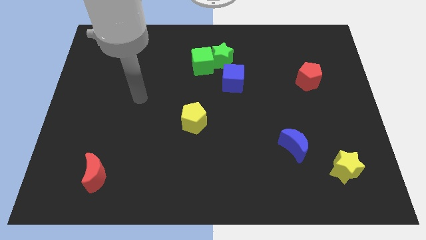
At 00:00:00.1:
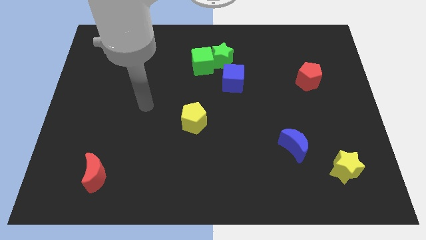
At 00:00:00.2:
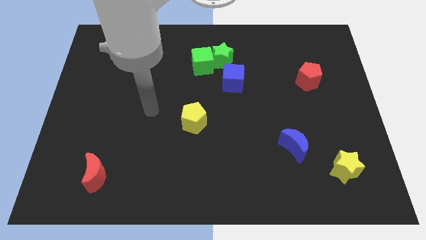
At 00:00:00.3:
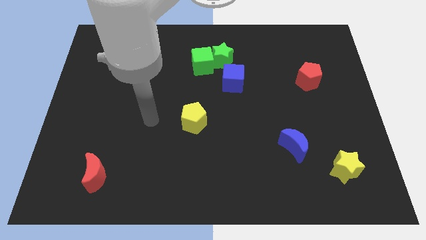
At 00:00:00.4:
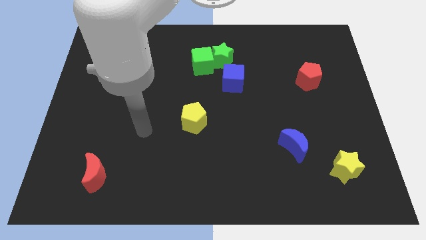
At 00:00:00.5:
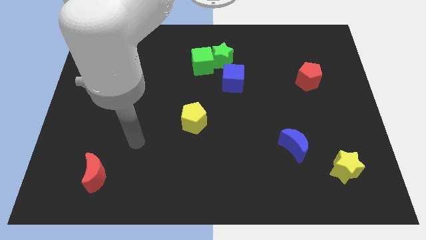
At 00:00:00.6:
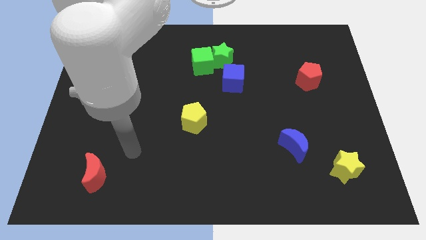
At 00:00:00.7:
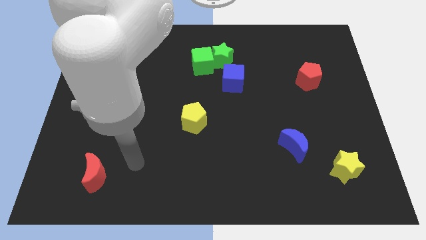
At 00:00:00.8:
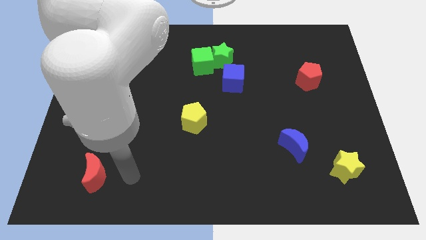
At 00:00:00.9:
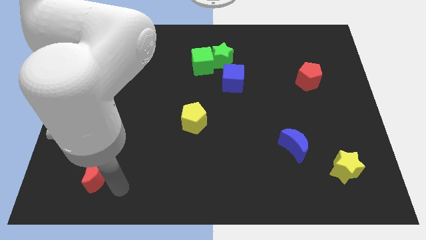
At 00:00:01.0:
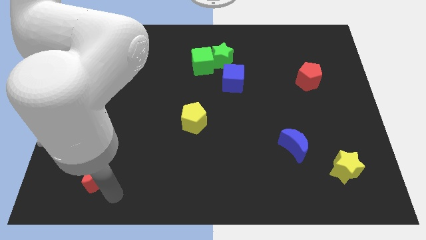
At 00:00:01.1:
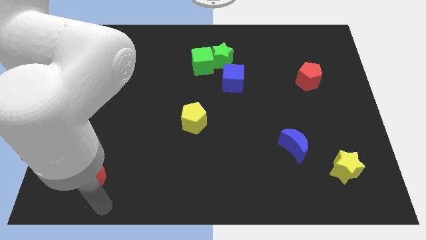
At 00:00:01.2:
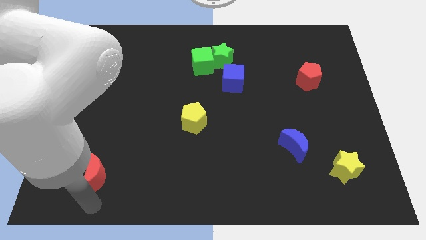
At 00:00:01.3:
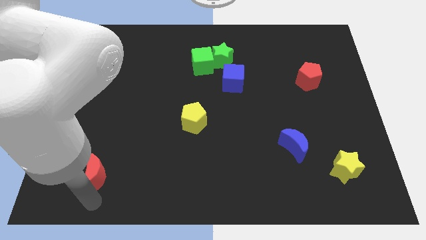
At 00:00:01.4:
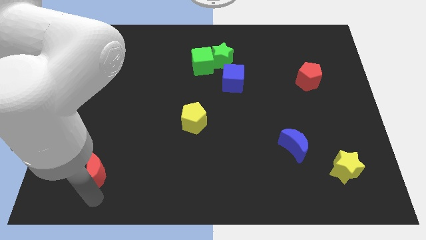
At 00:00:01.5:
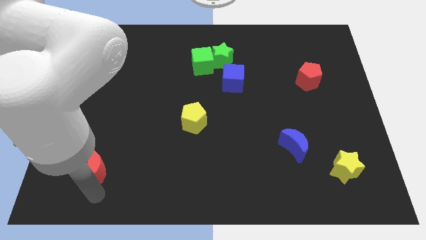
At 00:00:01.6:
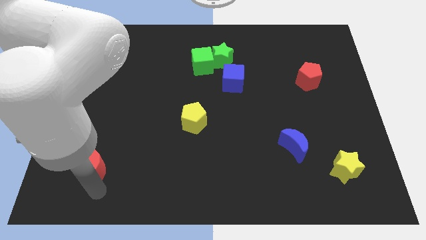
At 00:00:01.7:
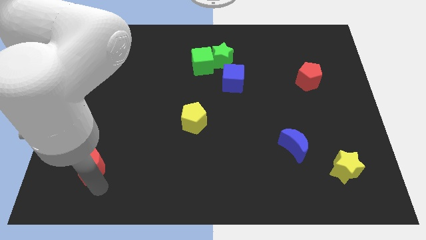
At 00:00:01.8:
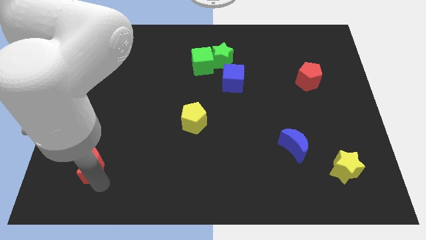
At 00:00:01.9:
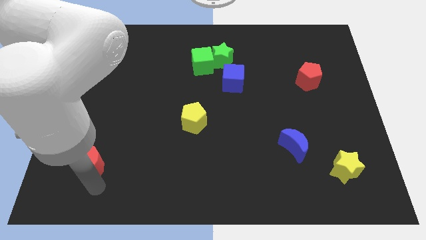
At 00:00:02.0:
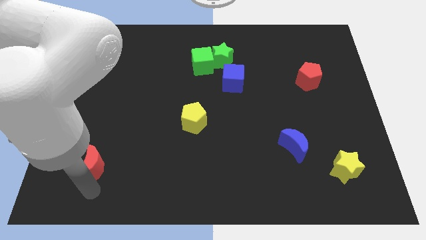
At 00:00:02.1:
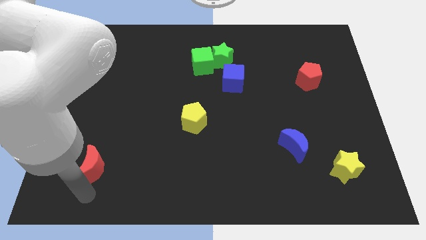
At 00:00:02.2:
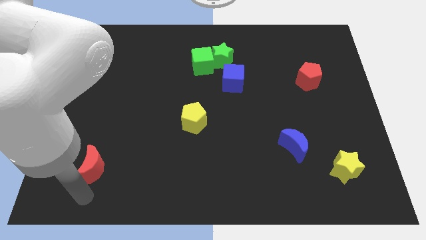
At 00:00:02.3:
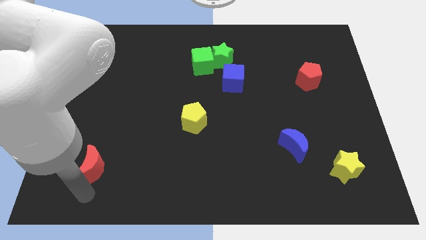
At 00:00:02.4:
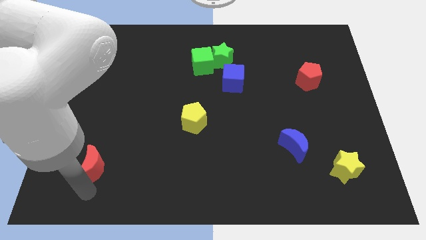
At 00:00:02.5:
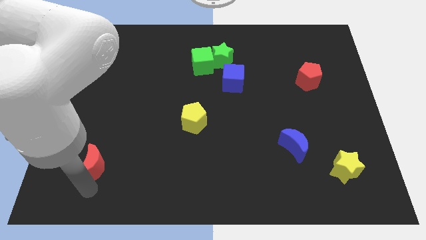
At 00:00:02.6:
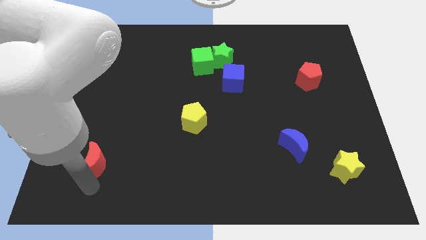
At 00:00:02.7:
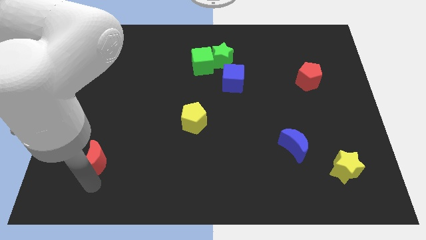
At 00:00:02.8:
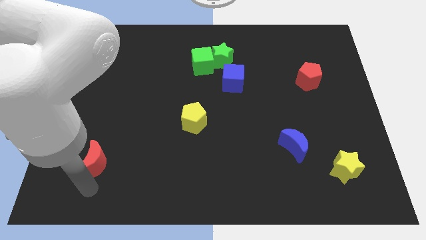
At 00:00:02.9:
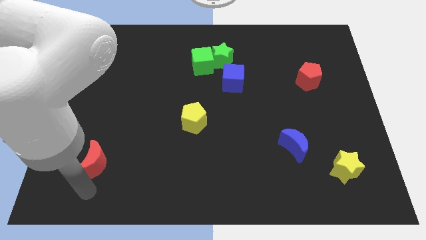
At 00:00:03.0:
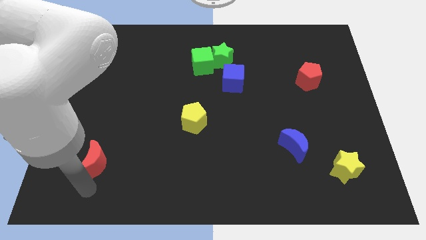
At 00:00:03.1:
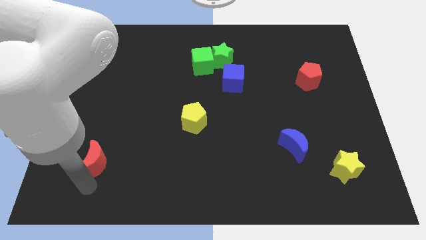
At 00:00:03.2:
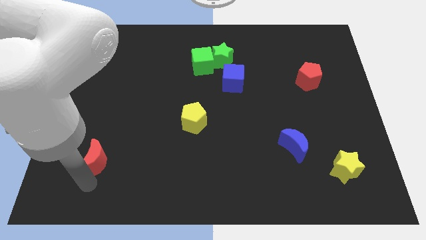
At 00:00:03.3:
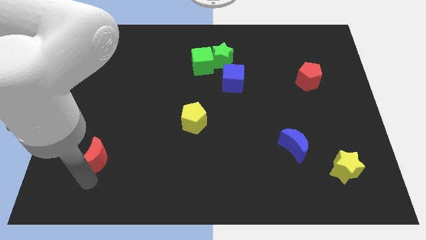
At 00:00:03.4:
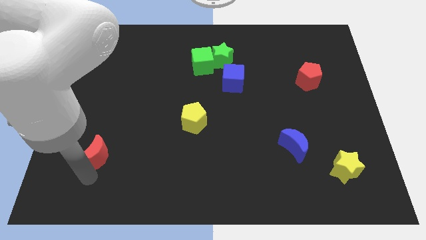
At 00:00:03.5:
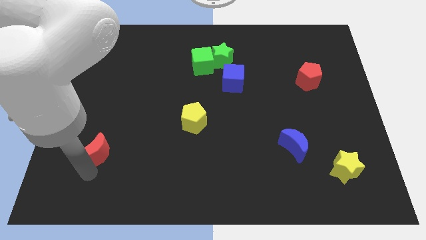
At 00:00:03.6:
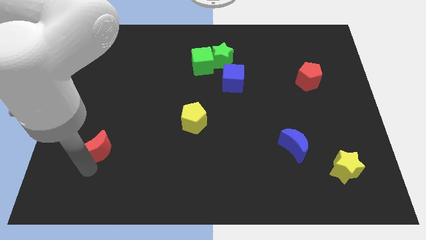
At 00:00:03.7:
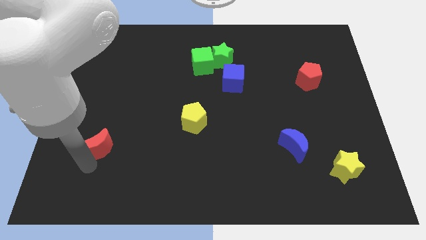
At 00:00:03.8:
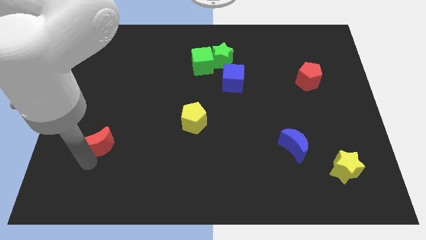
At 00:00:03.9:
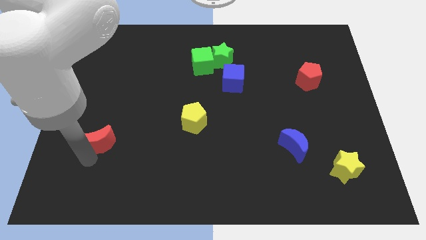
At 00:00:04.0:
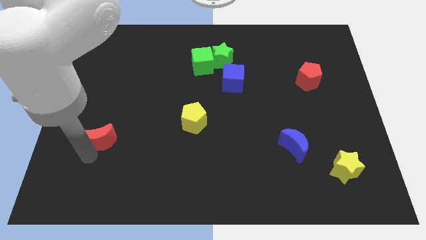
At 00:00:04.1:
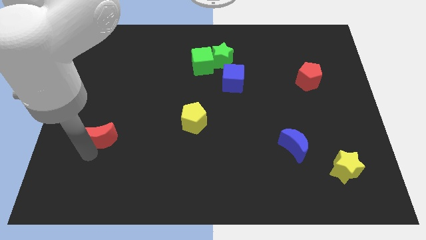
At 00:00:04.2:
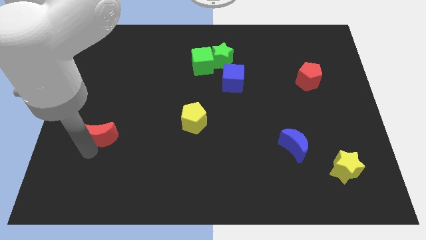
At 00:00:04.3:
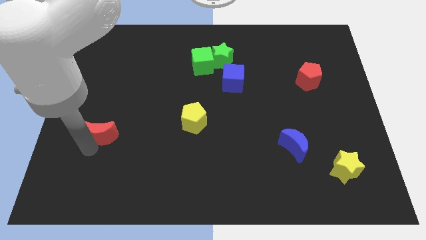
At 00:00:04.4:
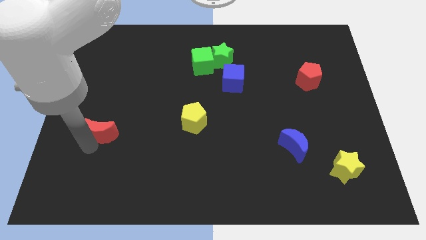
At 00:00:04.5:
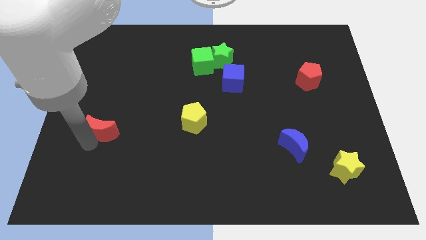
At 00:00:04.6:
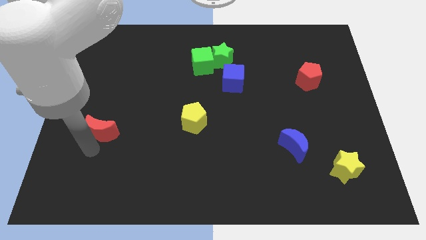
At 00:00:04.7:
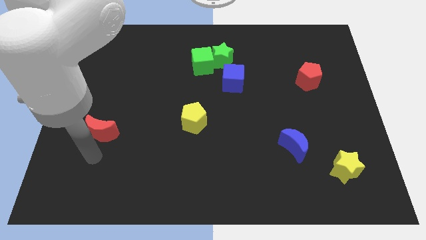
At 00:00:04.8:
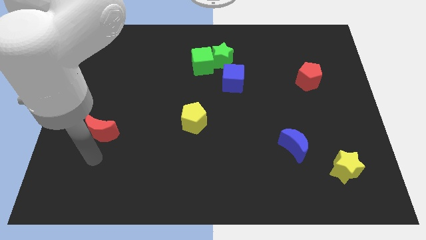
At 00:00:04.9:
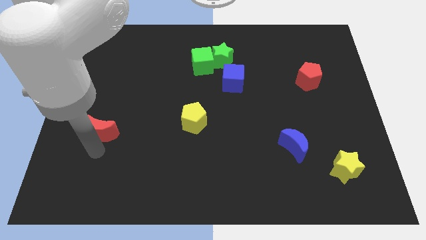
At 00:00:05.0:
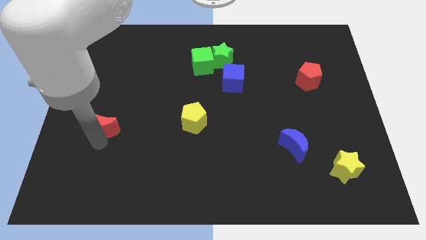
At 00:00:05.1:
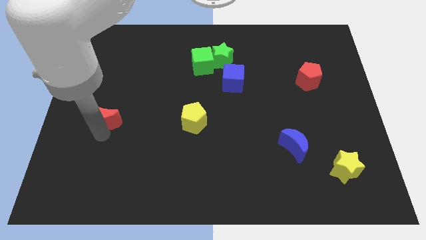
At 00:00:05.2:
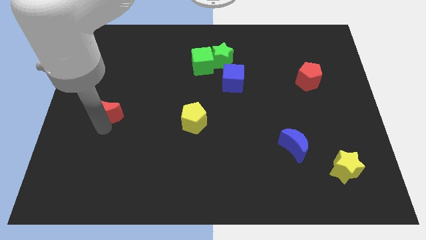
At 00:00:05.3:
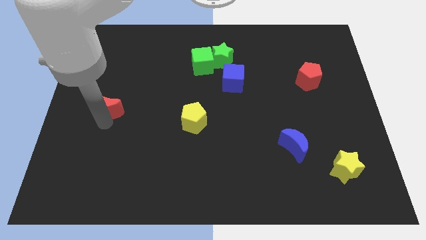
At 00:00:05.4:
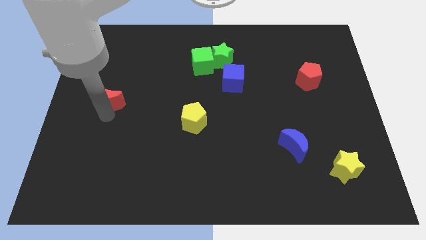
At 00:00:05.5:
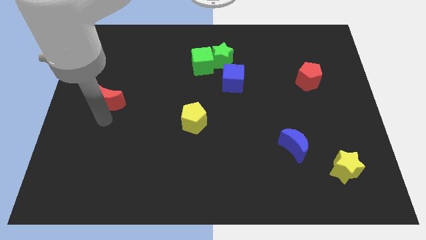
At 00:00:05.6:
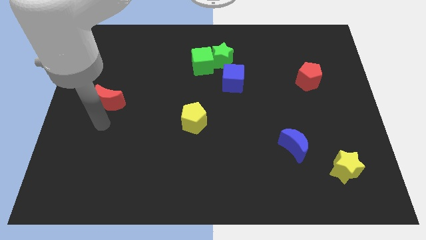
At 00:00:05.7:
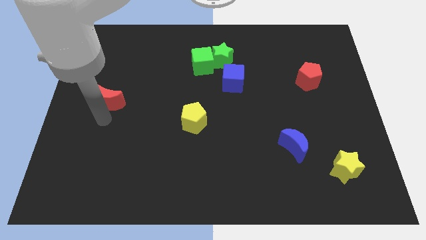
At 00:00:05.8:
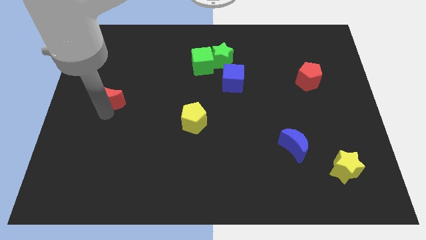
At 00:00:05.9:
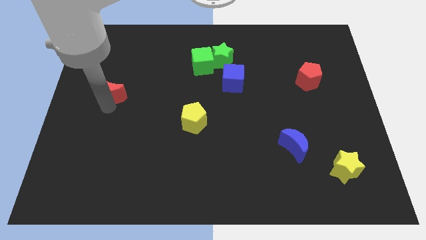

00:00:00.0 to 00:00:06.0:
move the red moon up

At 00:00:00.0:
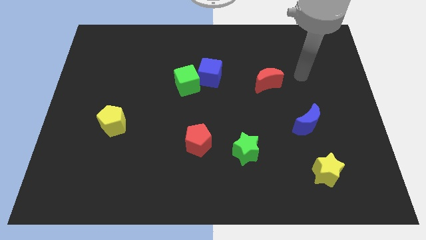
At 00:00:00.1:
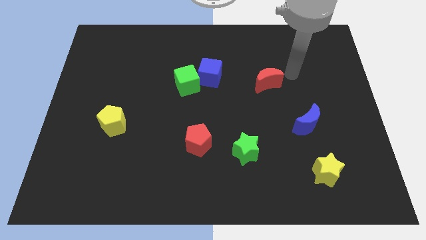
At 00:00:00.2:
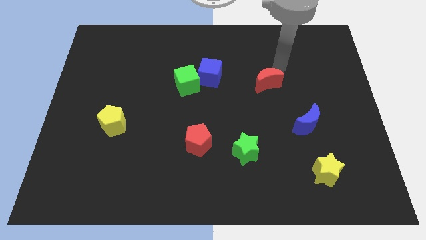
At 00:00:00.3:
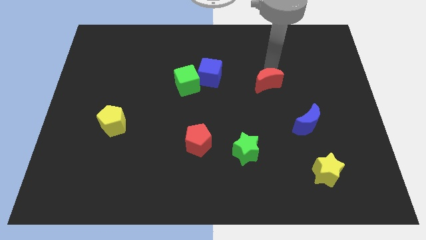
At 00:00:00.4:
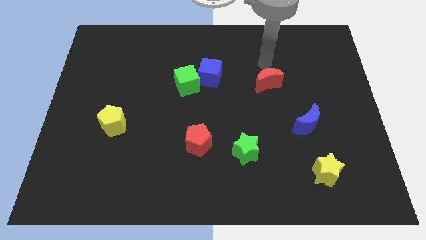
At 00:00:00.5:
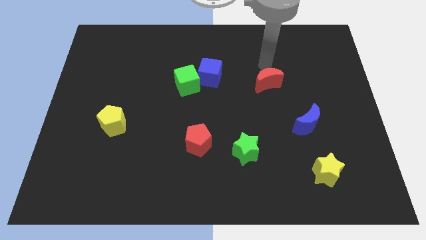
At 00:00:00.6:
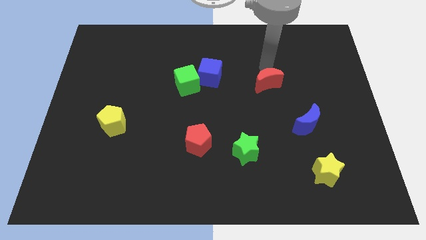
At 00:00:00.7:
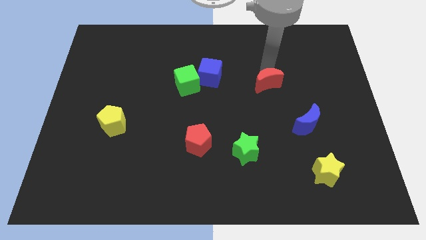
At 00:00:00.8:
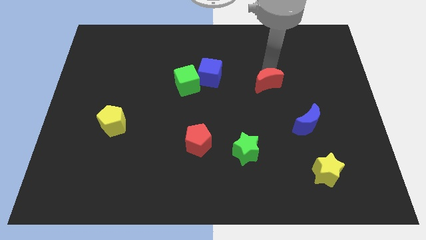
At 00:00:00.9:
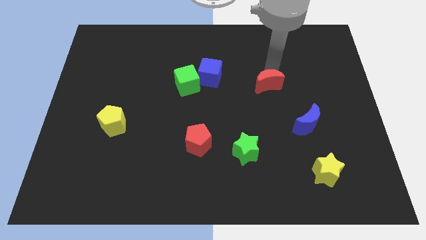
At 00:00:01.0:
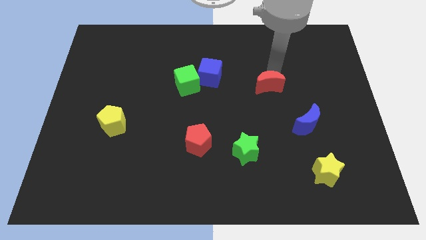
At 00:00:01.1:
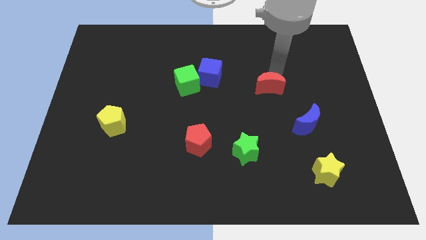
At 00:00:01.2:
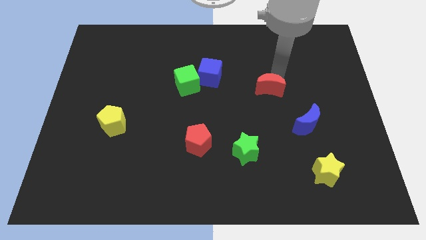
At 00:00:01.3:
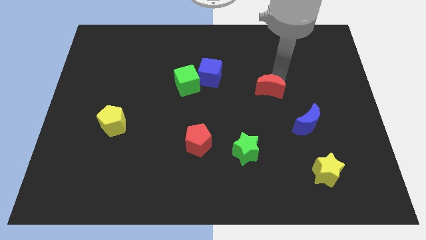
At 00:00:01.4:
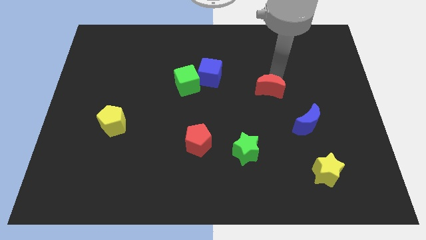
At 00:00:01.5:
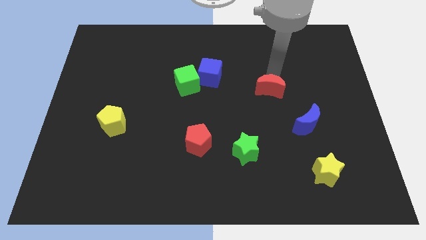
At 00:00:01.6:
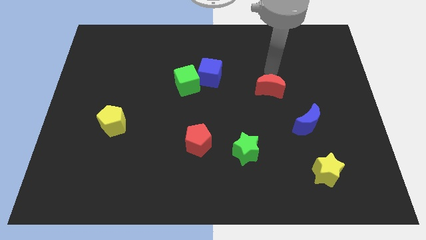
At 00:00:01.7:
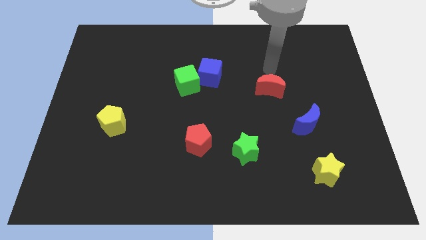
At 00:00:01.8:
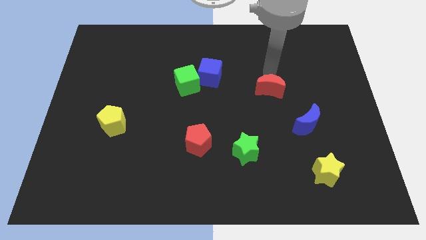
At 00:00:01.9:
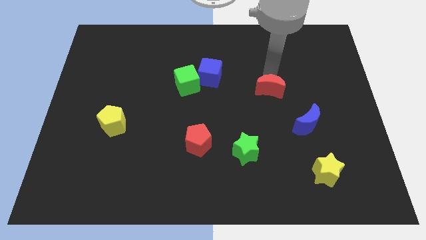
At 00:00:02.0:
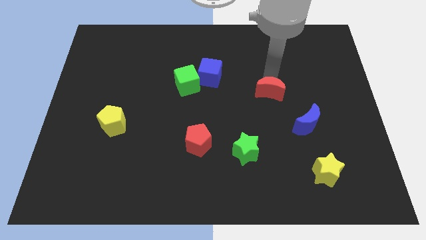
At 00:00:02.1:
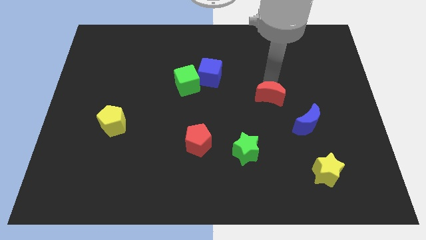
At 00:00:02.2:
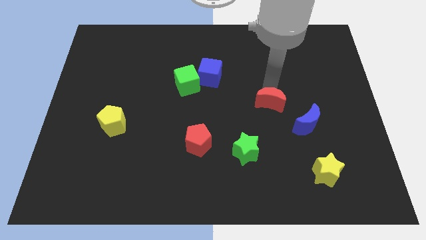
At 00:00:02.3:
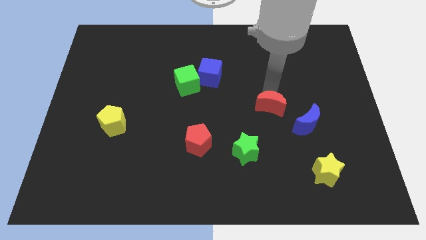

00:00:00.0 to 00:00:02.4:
slightly slide the red moon downwards
